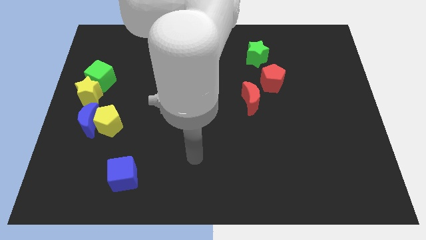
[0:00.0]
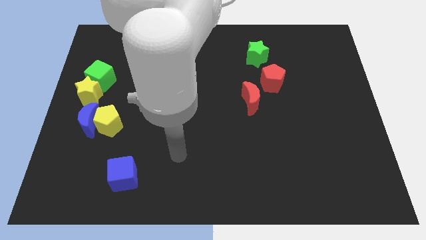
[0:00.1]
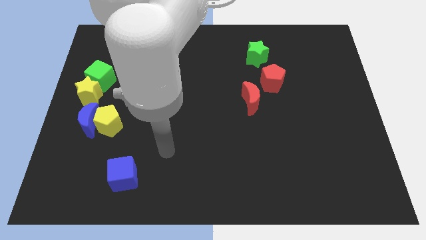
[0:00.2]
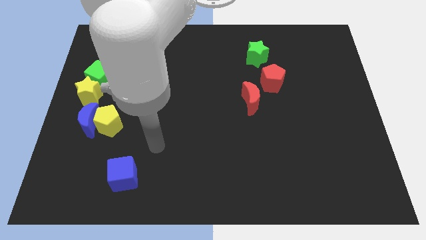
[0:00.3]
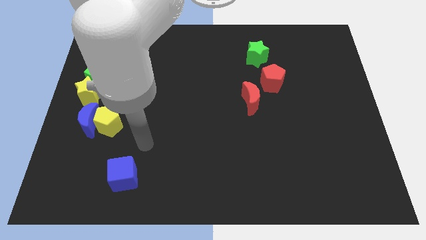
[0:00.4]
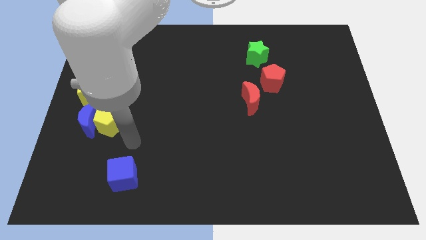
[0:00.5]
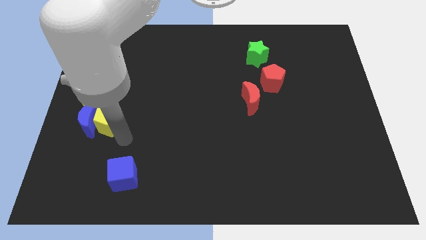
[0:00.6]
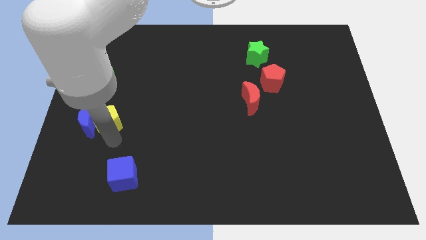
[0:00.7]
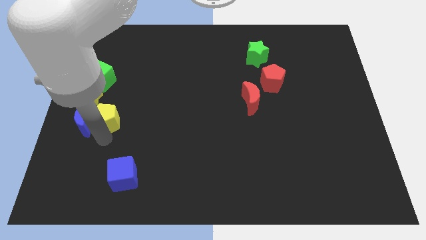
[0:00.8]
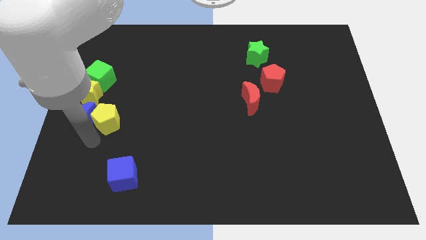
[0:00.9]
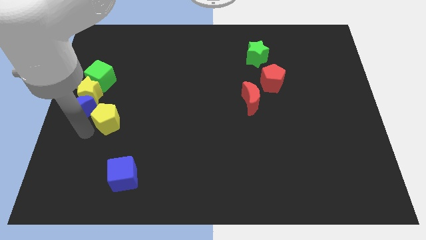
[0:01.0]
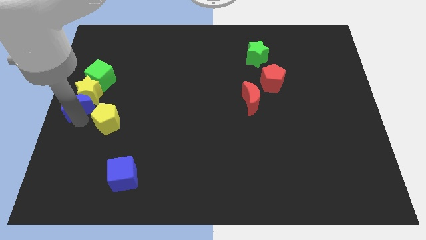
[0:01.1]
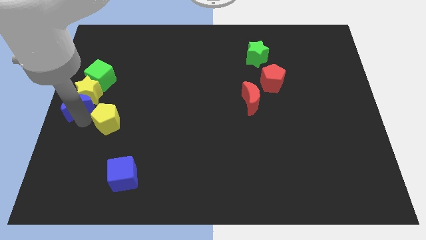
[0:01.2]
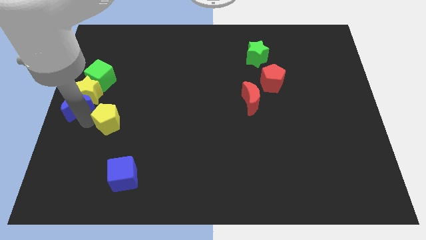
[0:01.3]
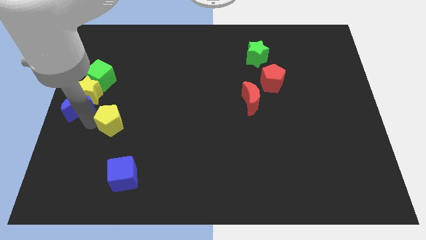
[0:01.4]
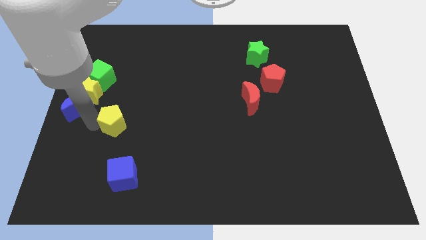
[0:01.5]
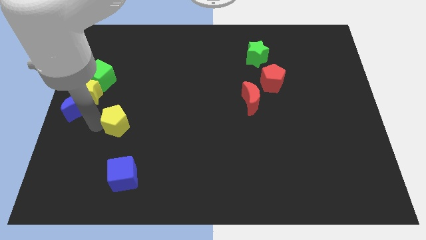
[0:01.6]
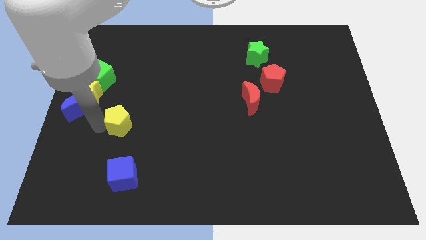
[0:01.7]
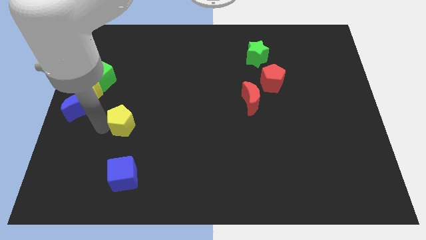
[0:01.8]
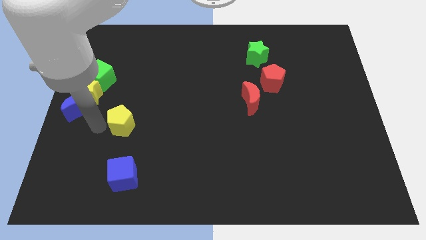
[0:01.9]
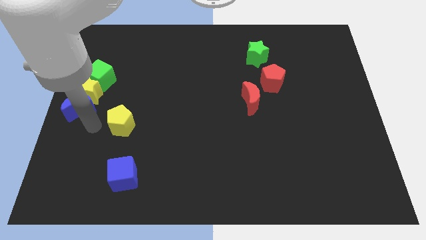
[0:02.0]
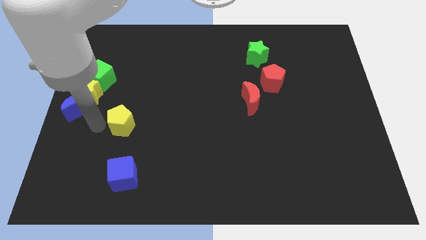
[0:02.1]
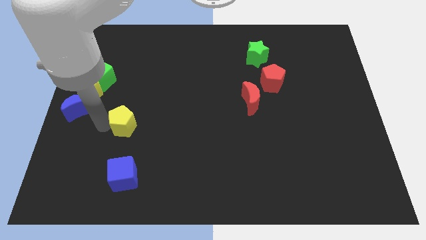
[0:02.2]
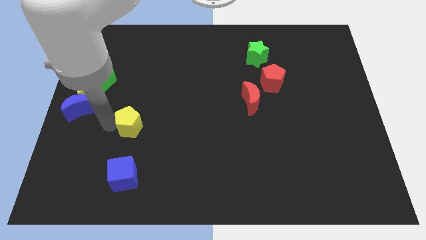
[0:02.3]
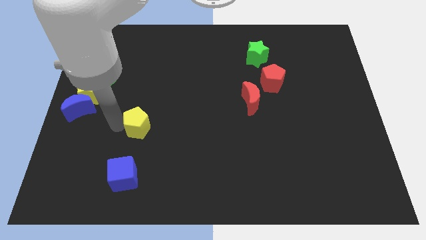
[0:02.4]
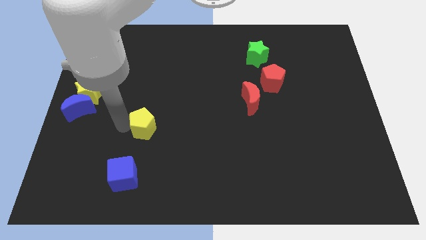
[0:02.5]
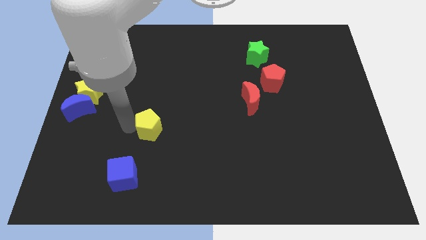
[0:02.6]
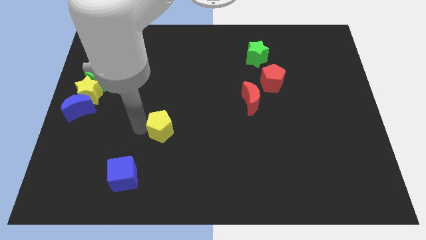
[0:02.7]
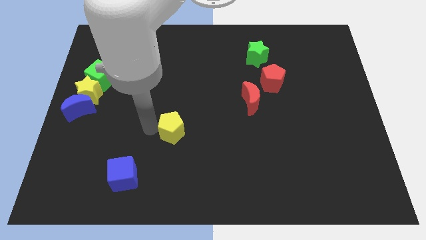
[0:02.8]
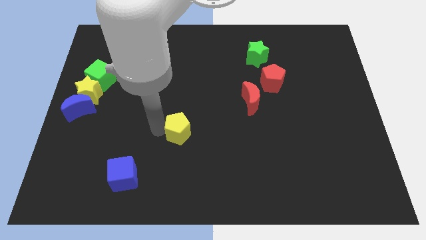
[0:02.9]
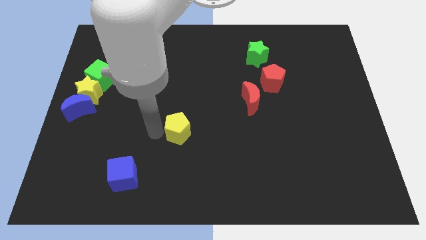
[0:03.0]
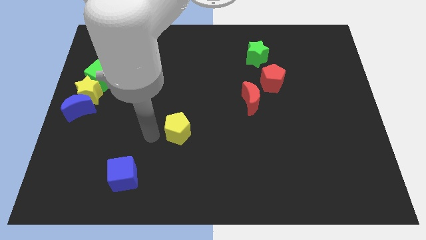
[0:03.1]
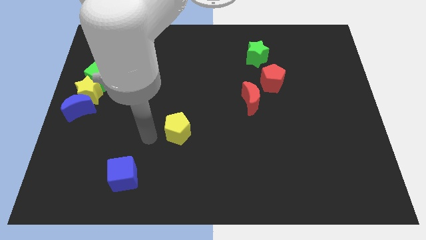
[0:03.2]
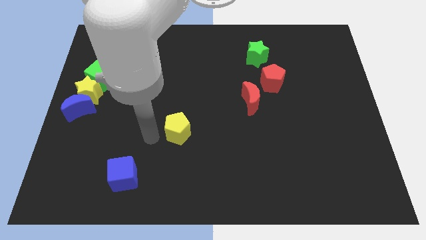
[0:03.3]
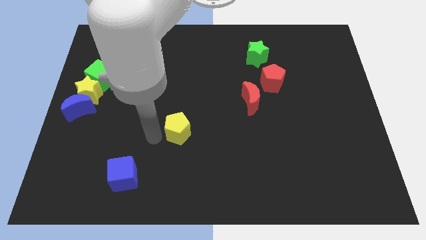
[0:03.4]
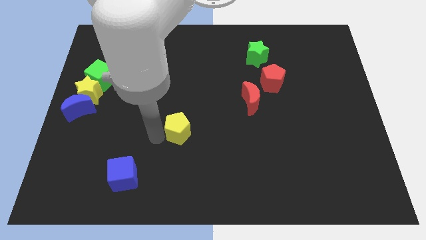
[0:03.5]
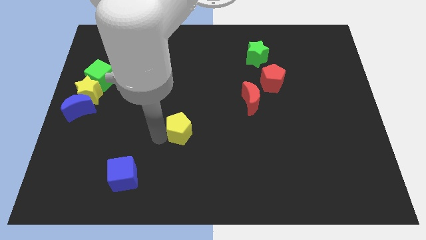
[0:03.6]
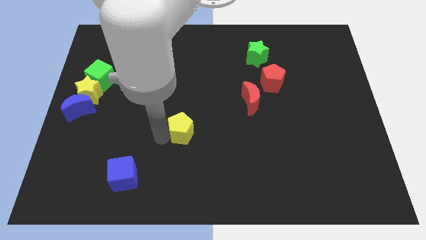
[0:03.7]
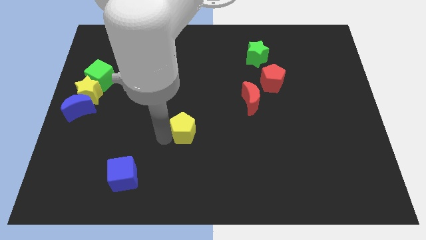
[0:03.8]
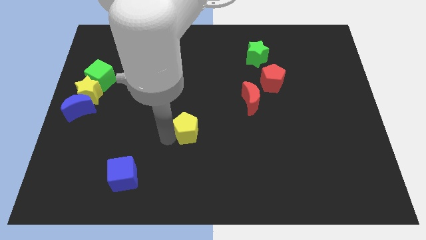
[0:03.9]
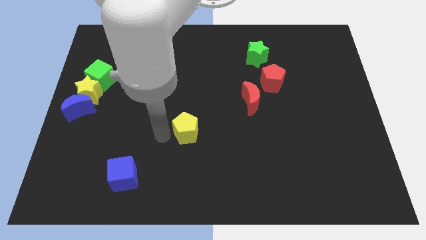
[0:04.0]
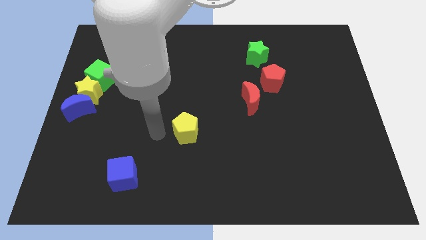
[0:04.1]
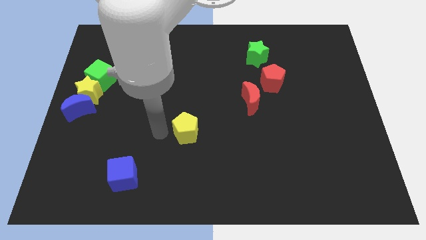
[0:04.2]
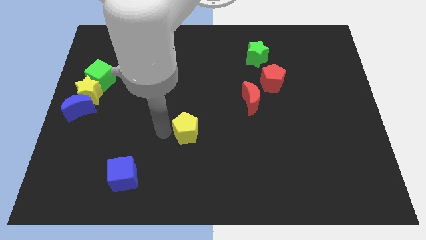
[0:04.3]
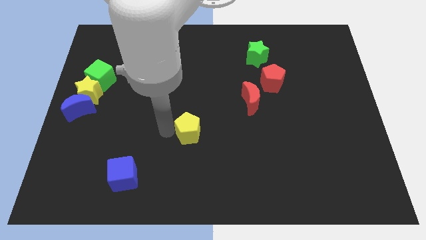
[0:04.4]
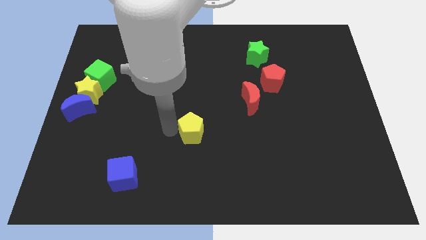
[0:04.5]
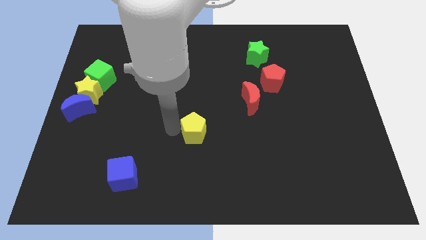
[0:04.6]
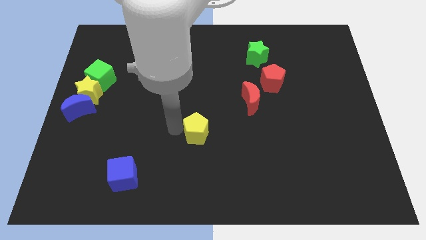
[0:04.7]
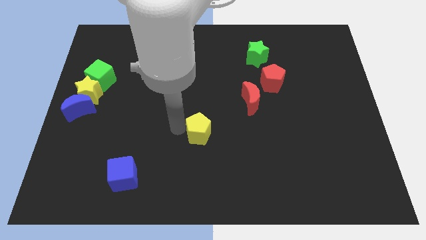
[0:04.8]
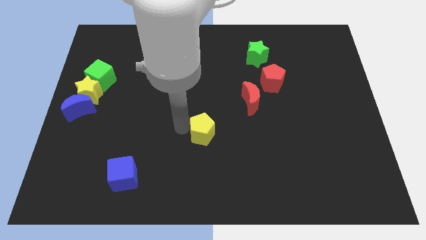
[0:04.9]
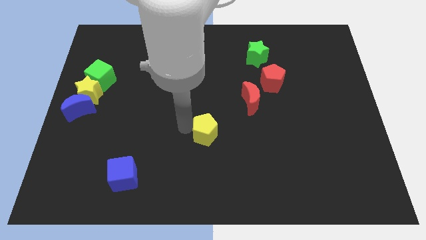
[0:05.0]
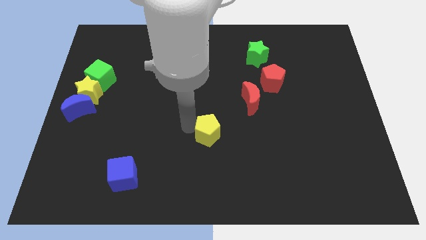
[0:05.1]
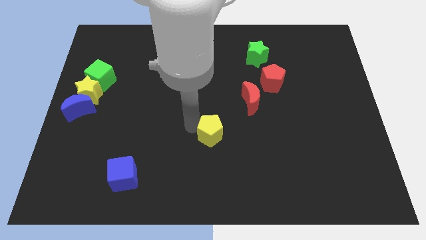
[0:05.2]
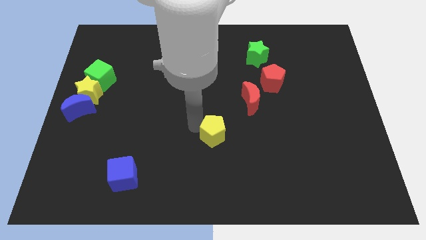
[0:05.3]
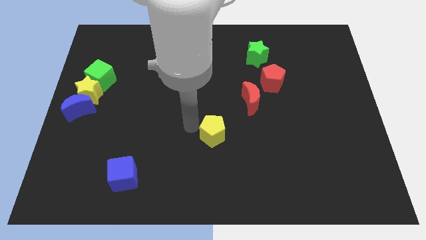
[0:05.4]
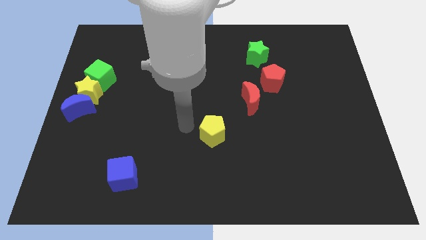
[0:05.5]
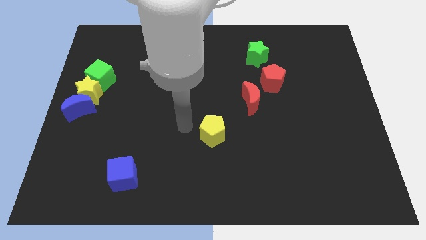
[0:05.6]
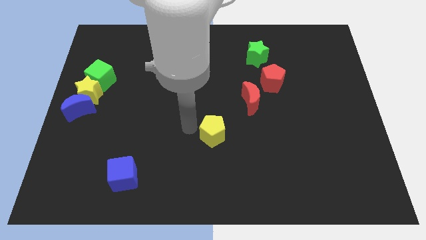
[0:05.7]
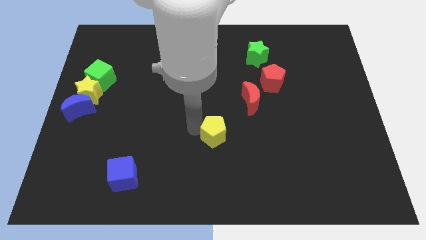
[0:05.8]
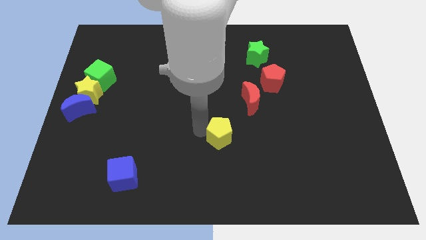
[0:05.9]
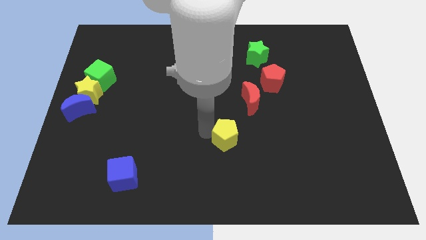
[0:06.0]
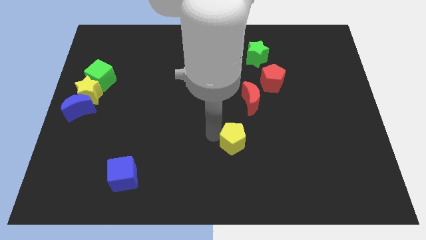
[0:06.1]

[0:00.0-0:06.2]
slide the yellow pentagon to the bottom of the red moon
